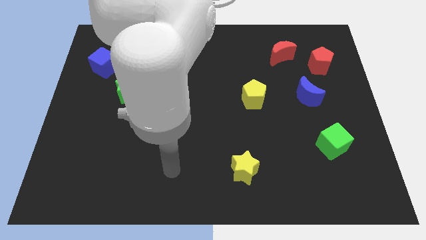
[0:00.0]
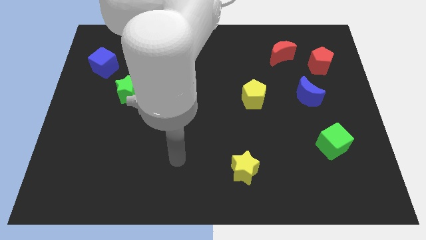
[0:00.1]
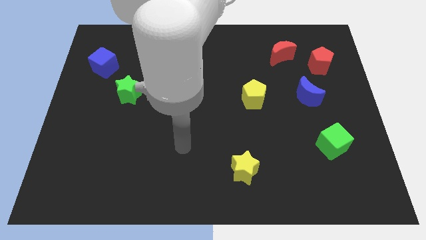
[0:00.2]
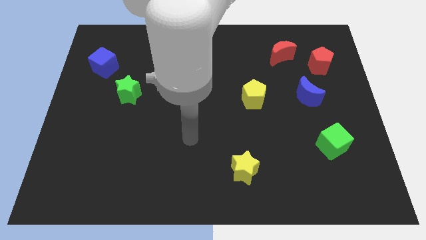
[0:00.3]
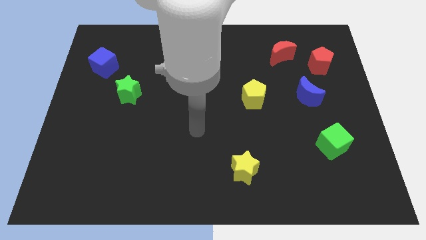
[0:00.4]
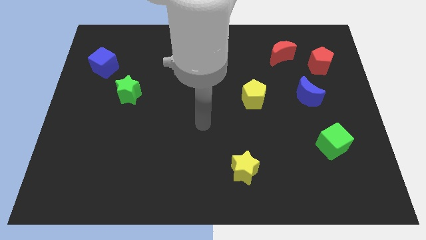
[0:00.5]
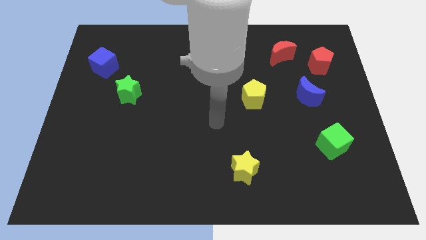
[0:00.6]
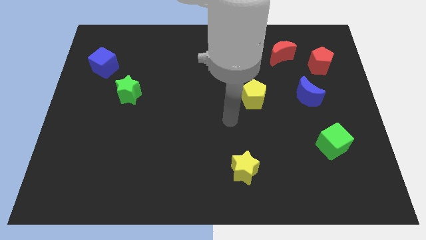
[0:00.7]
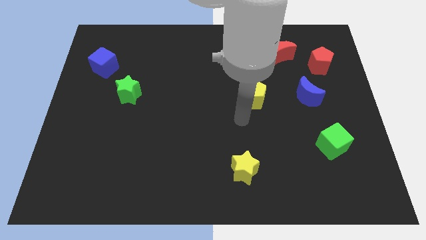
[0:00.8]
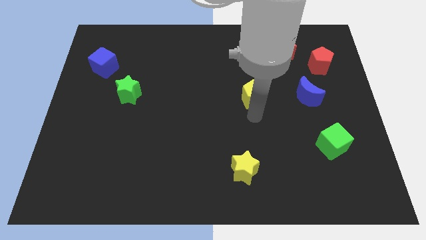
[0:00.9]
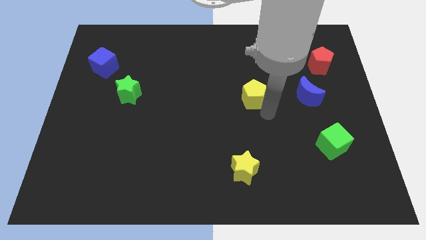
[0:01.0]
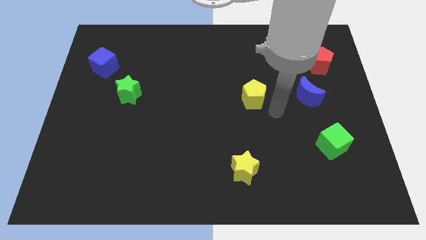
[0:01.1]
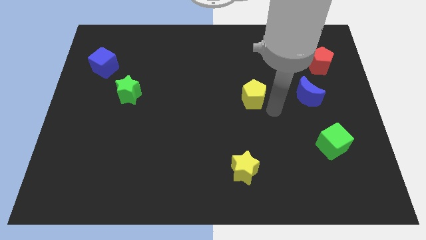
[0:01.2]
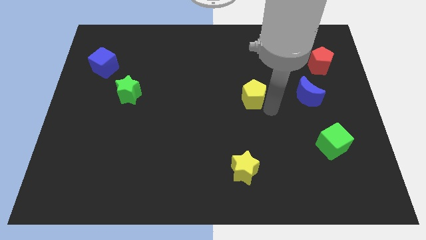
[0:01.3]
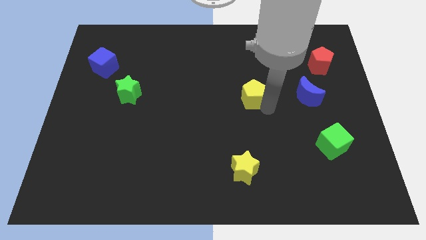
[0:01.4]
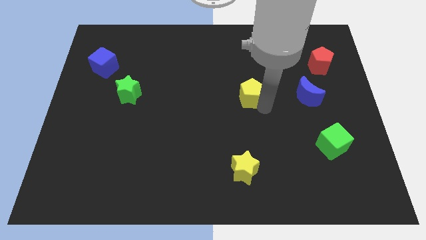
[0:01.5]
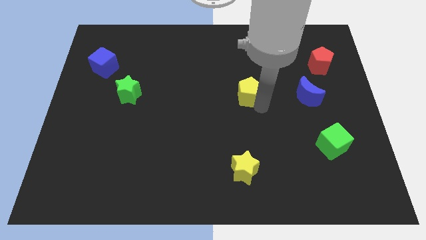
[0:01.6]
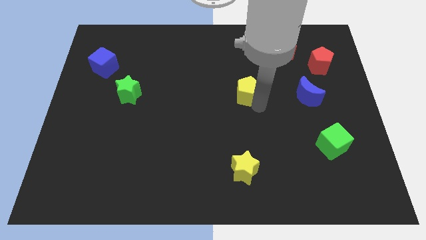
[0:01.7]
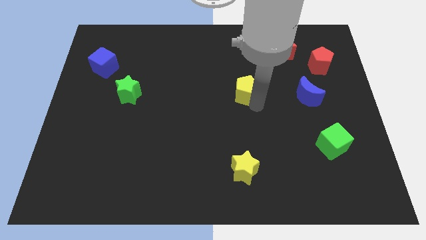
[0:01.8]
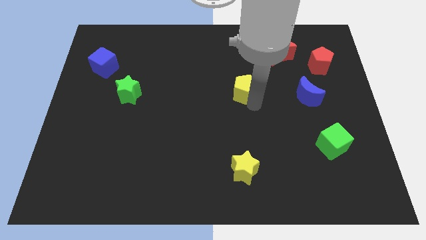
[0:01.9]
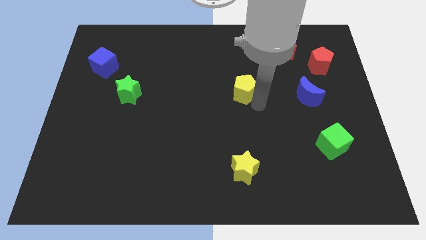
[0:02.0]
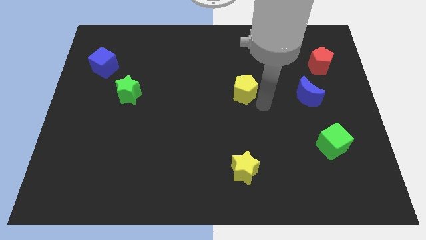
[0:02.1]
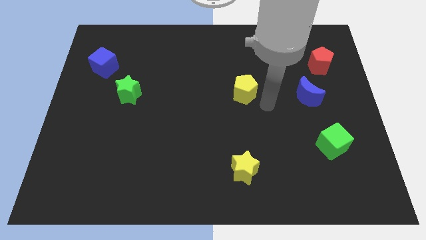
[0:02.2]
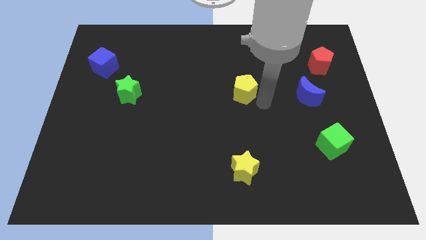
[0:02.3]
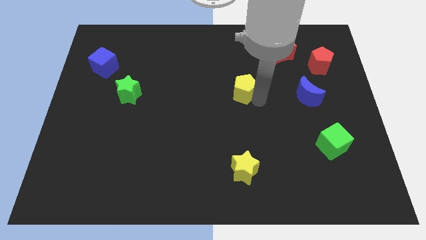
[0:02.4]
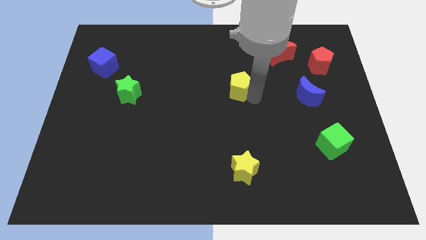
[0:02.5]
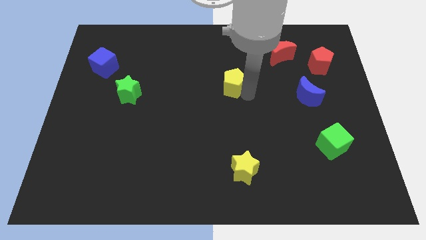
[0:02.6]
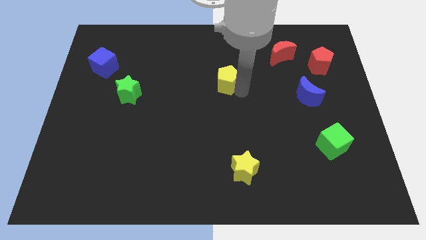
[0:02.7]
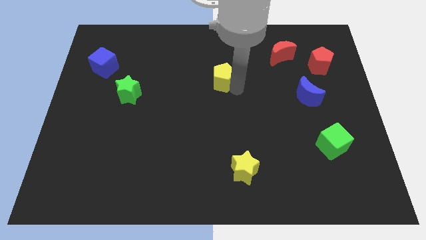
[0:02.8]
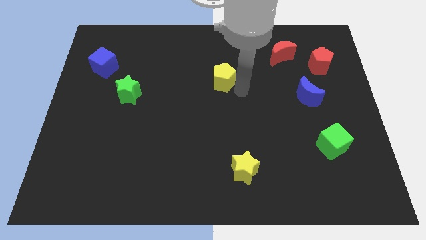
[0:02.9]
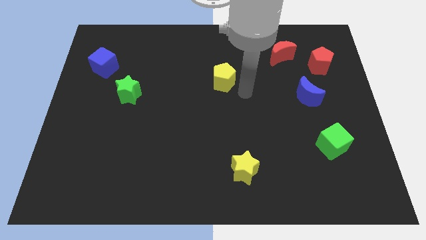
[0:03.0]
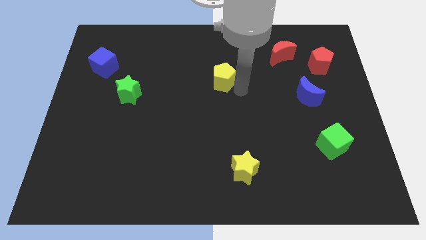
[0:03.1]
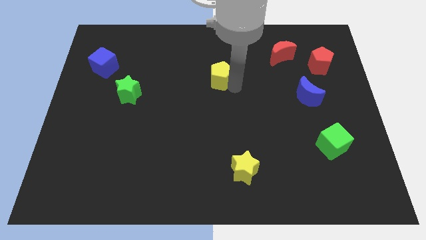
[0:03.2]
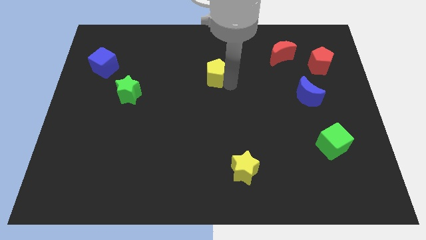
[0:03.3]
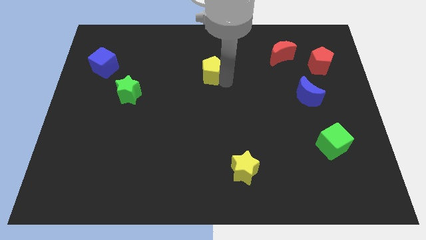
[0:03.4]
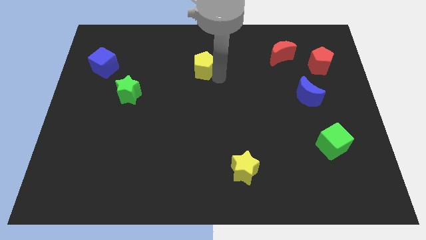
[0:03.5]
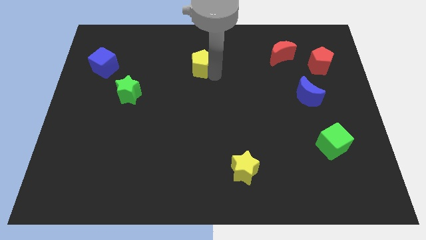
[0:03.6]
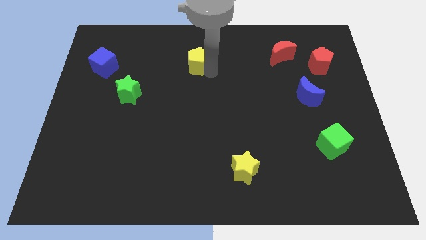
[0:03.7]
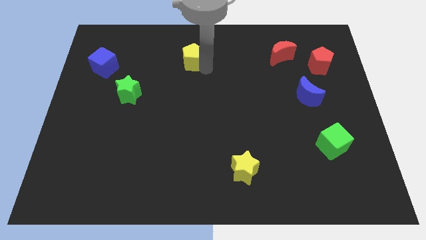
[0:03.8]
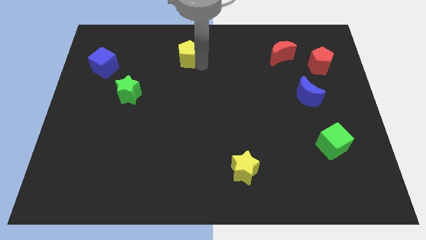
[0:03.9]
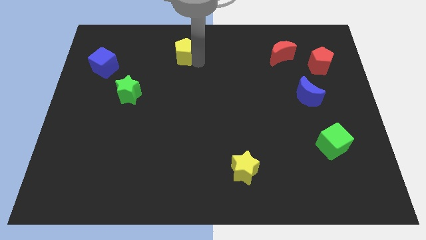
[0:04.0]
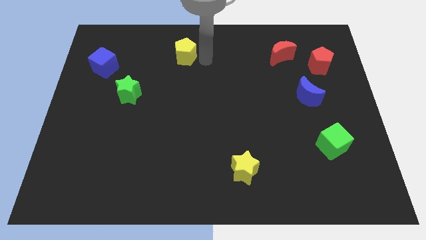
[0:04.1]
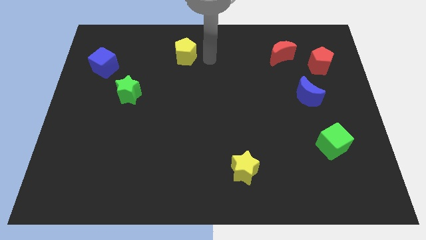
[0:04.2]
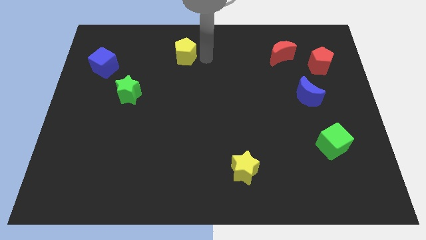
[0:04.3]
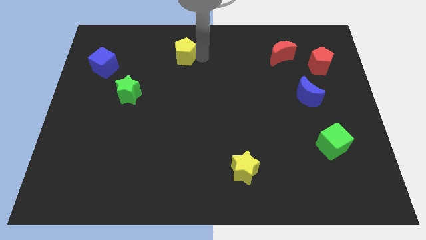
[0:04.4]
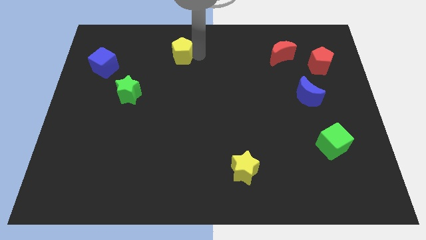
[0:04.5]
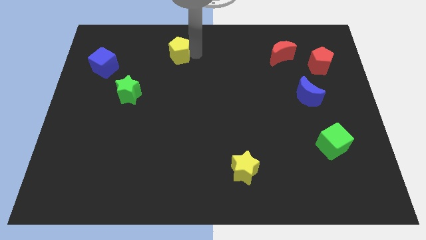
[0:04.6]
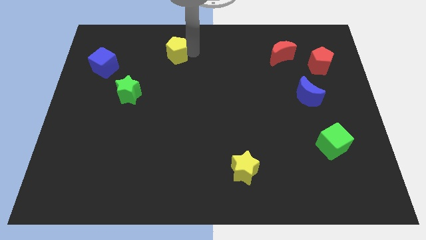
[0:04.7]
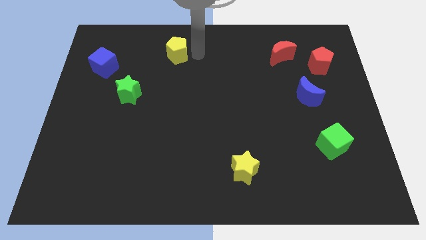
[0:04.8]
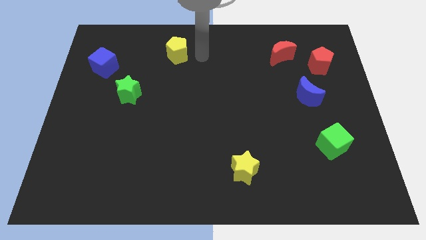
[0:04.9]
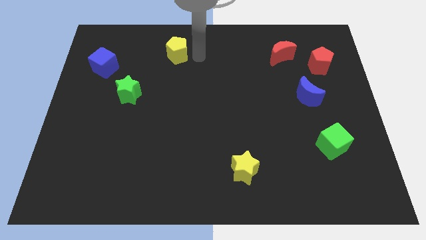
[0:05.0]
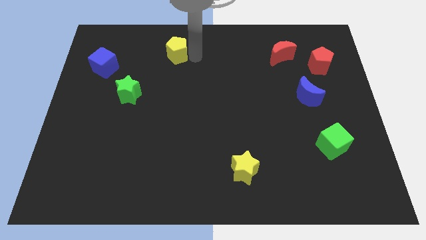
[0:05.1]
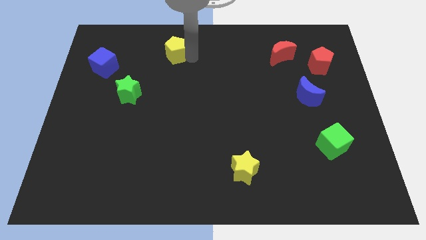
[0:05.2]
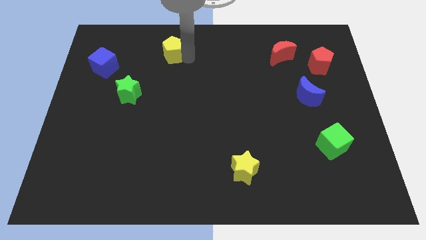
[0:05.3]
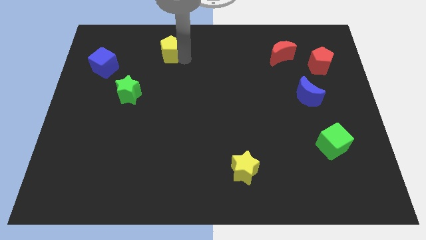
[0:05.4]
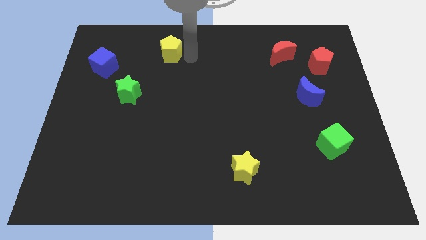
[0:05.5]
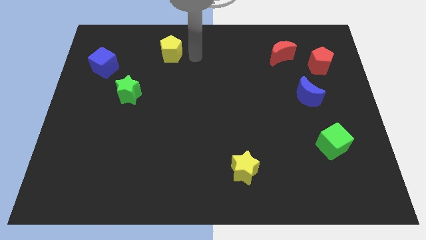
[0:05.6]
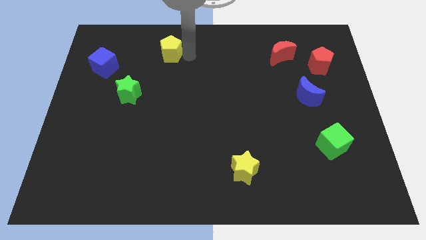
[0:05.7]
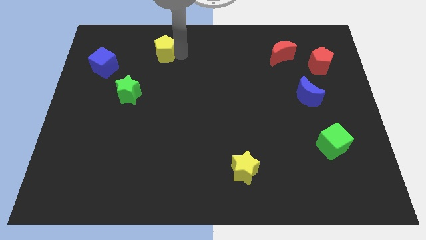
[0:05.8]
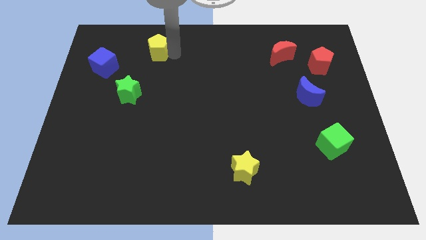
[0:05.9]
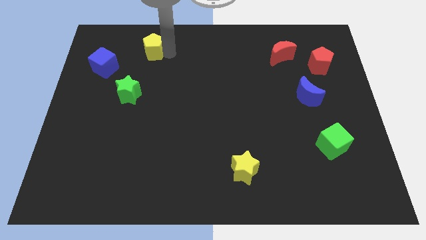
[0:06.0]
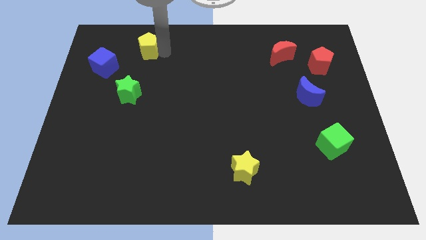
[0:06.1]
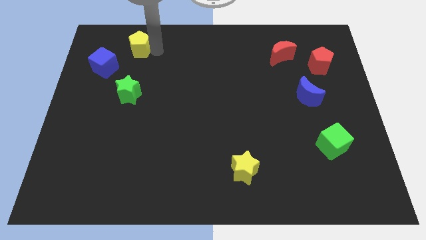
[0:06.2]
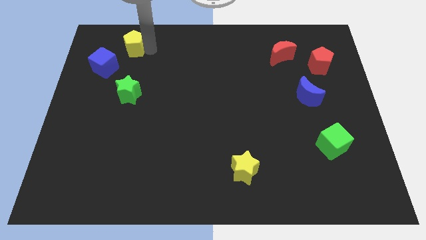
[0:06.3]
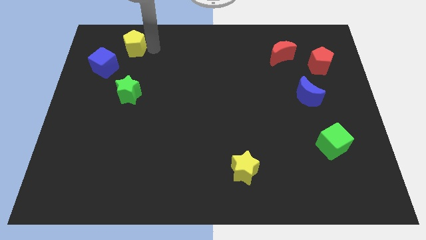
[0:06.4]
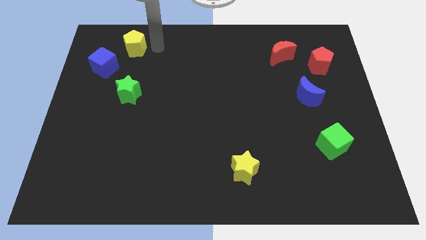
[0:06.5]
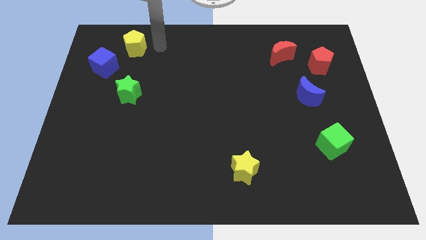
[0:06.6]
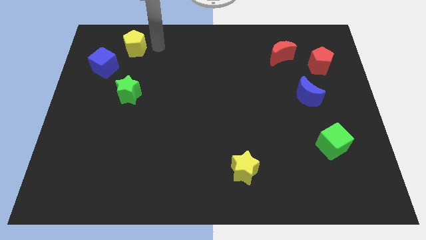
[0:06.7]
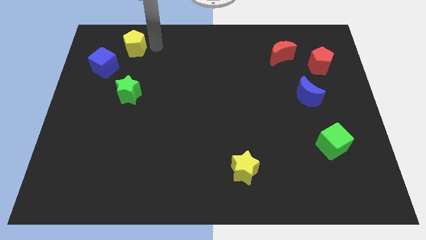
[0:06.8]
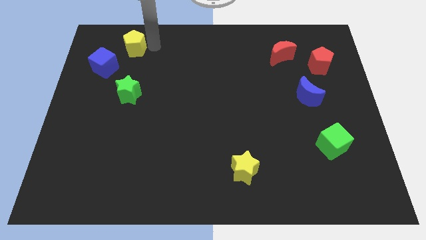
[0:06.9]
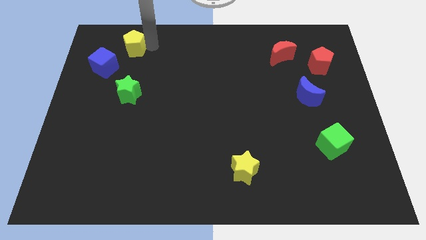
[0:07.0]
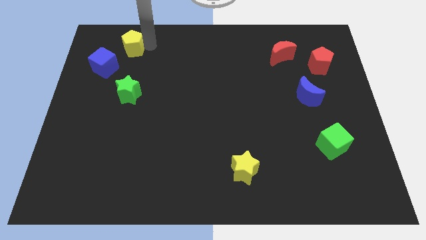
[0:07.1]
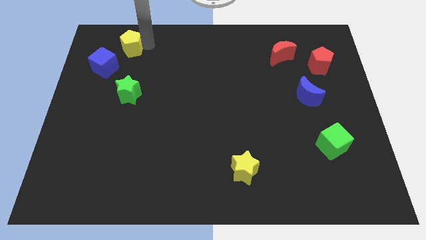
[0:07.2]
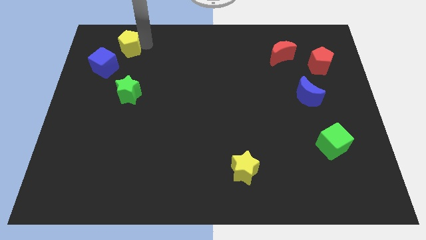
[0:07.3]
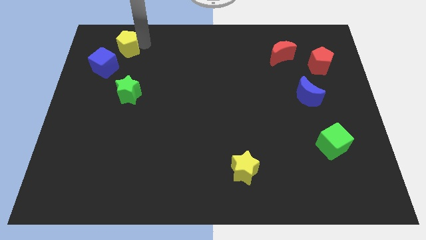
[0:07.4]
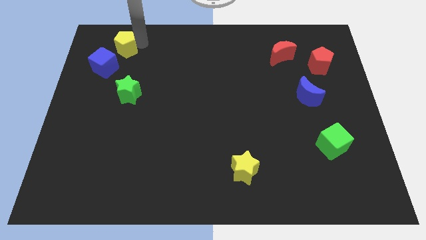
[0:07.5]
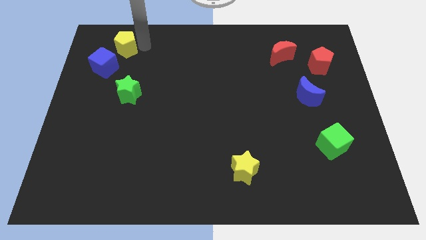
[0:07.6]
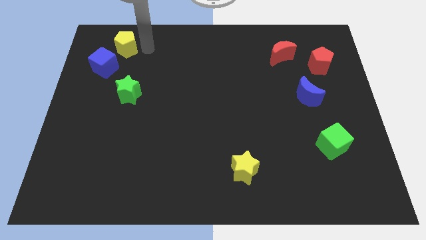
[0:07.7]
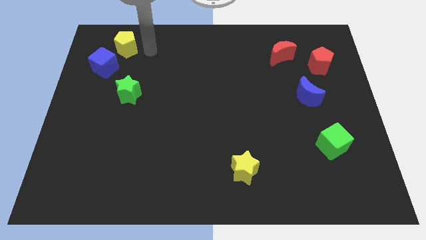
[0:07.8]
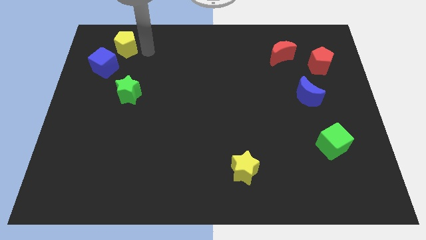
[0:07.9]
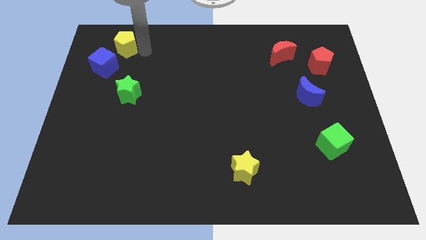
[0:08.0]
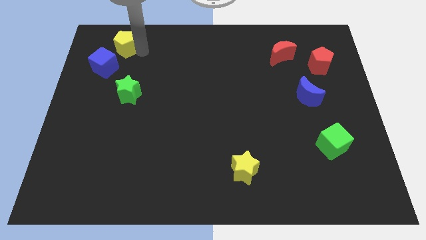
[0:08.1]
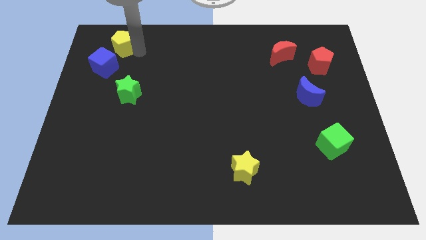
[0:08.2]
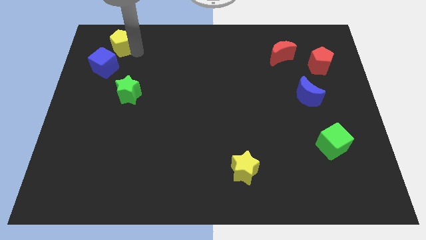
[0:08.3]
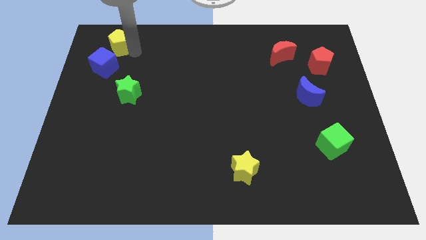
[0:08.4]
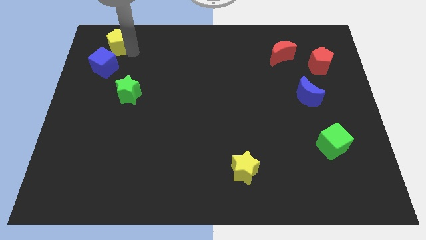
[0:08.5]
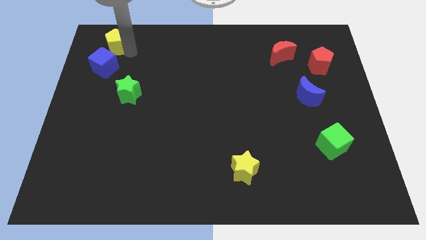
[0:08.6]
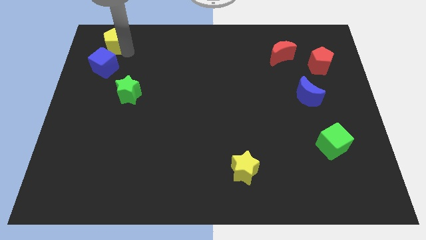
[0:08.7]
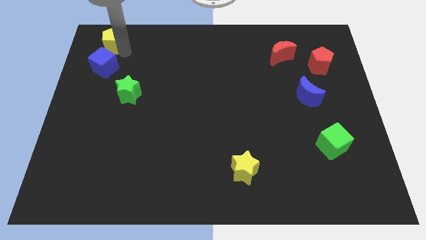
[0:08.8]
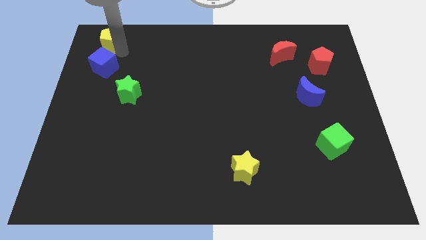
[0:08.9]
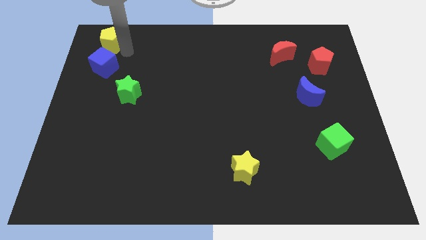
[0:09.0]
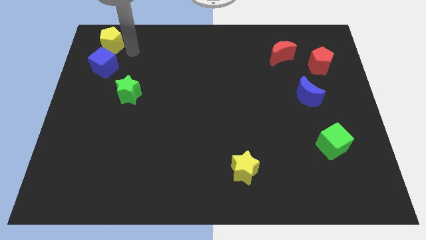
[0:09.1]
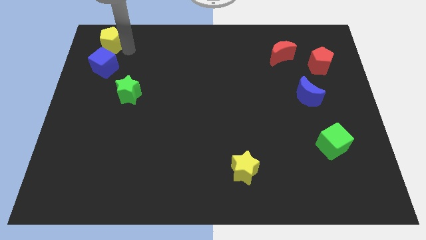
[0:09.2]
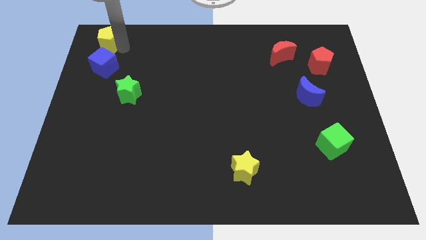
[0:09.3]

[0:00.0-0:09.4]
push the yellow pentagon to the top left of the board
